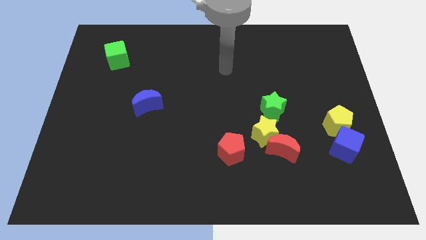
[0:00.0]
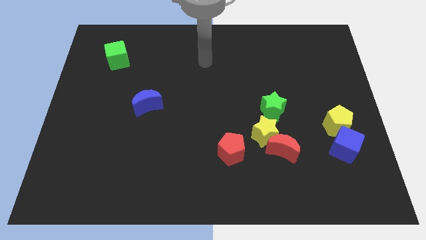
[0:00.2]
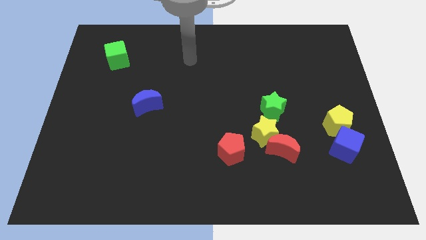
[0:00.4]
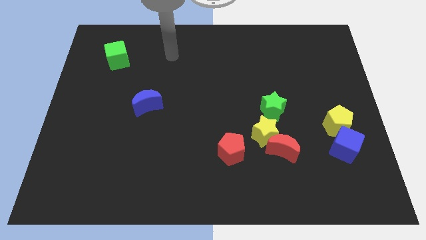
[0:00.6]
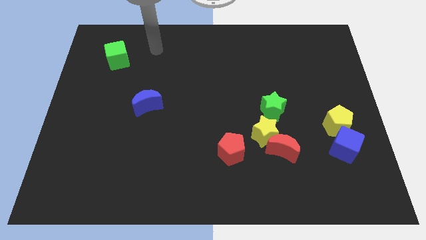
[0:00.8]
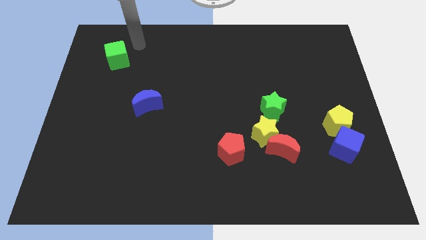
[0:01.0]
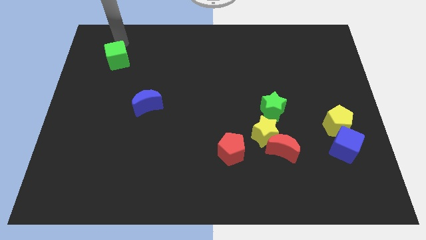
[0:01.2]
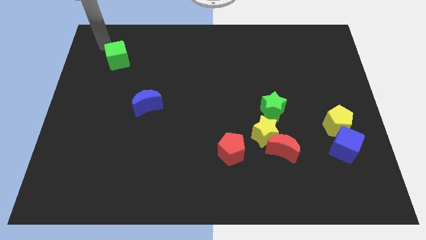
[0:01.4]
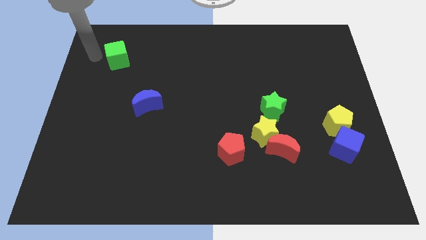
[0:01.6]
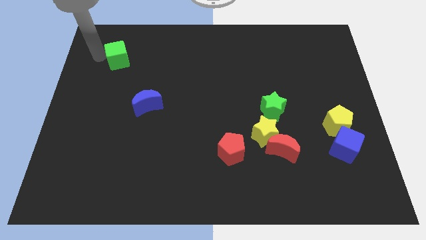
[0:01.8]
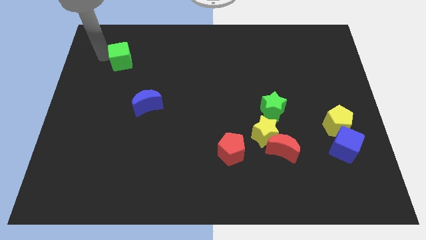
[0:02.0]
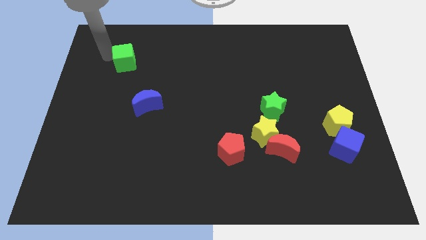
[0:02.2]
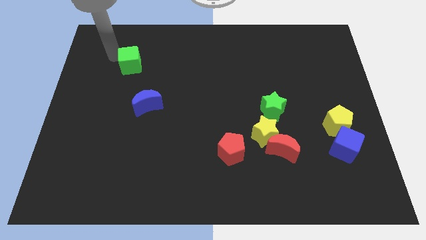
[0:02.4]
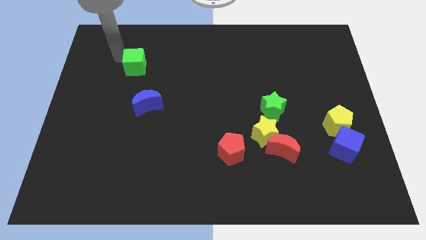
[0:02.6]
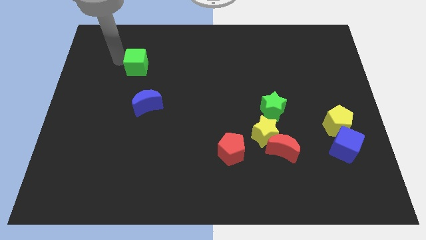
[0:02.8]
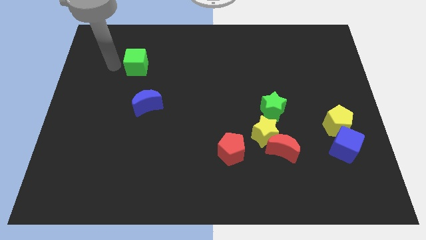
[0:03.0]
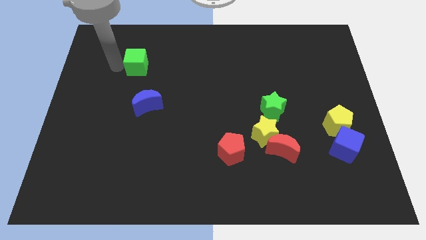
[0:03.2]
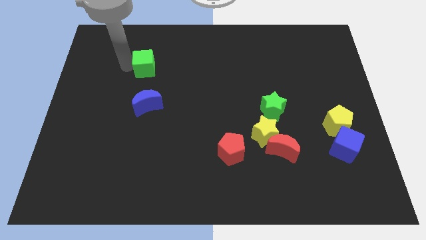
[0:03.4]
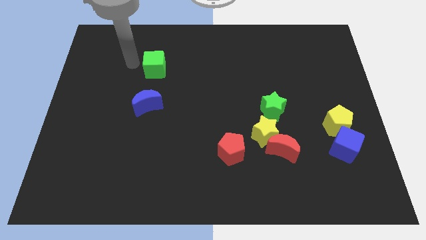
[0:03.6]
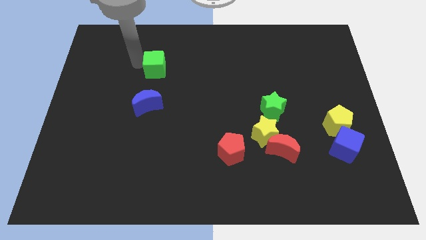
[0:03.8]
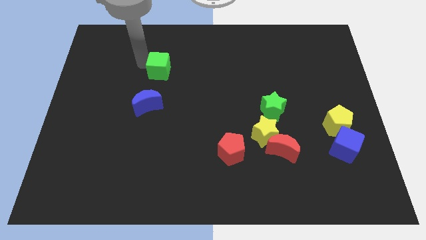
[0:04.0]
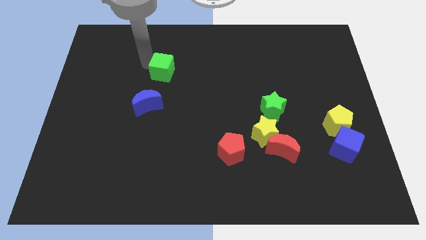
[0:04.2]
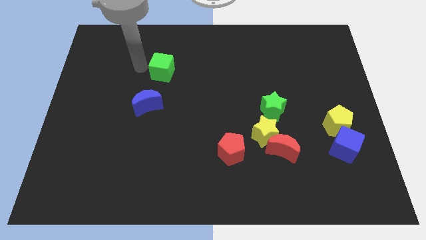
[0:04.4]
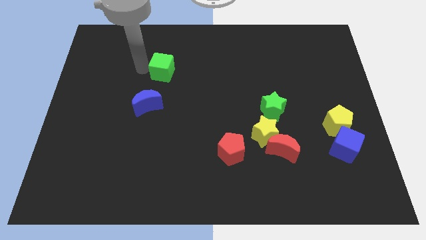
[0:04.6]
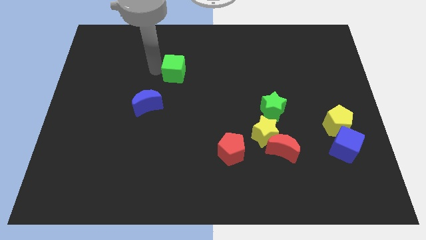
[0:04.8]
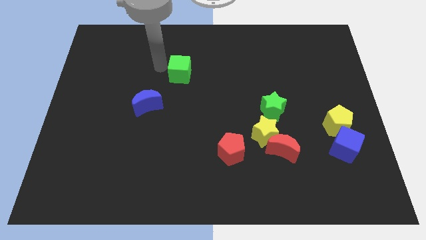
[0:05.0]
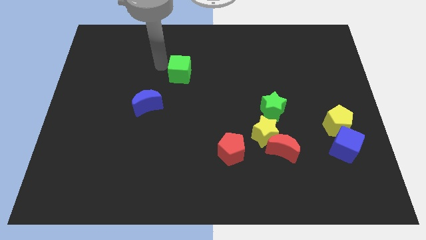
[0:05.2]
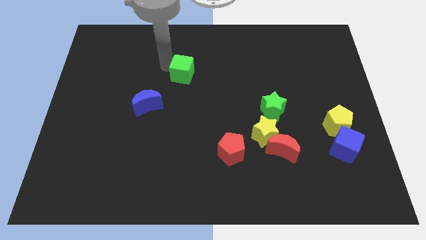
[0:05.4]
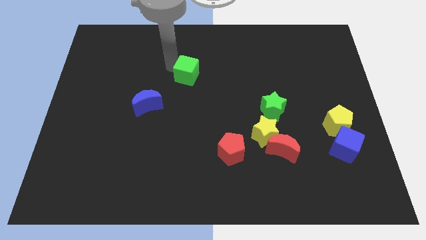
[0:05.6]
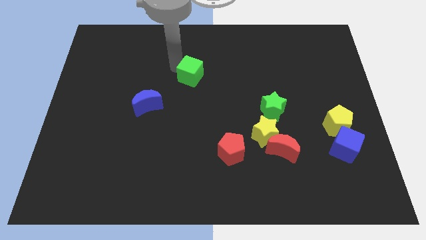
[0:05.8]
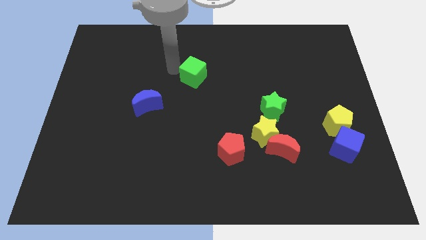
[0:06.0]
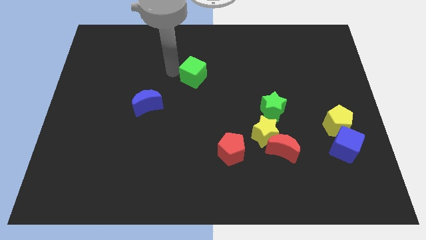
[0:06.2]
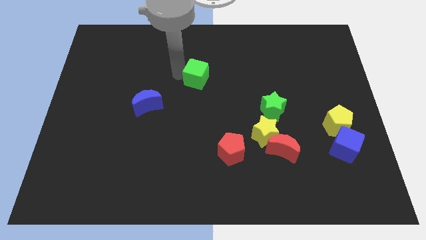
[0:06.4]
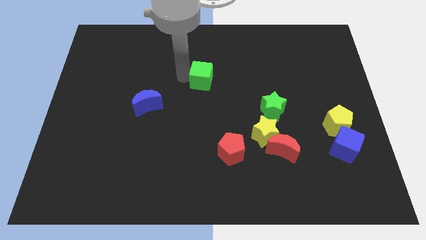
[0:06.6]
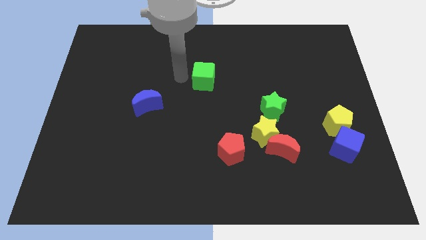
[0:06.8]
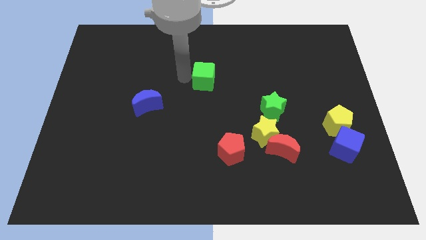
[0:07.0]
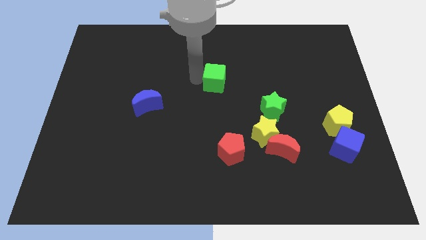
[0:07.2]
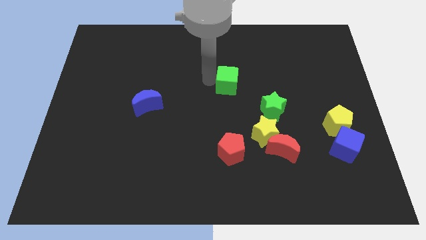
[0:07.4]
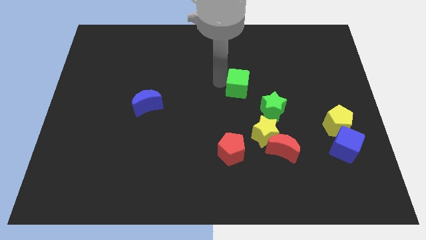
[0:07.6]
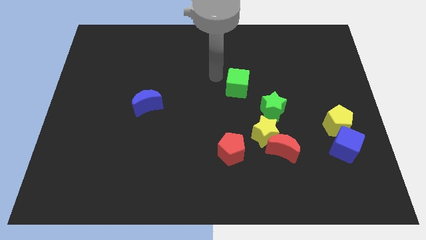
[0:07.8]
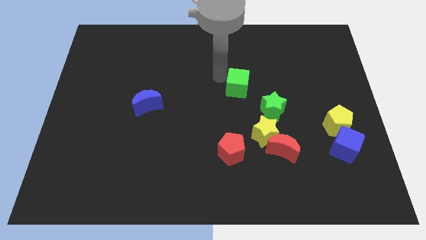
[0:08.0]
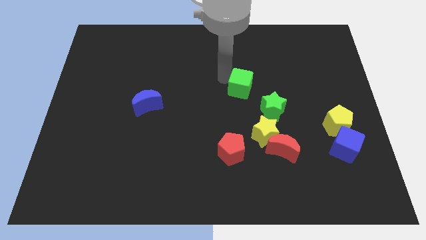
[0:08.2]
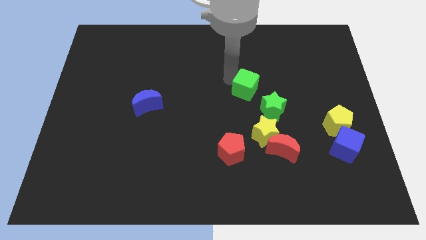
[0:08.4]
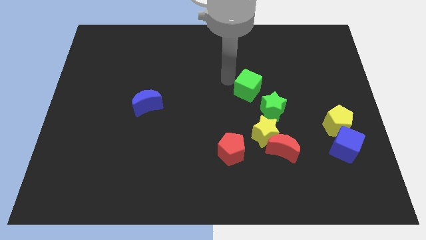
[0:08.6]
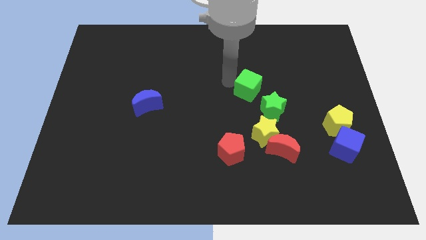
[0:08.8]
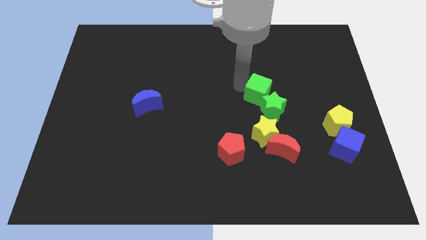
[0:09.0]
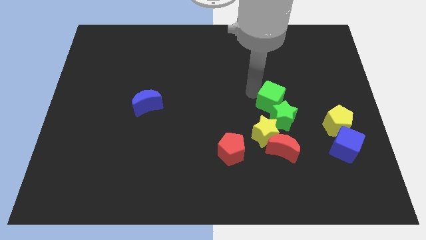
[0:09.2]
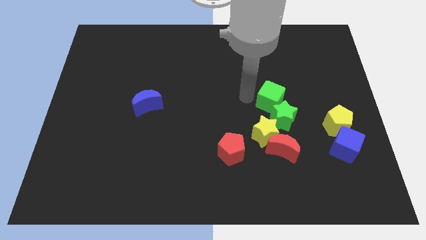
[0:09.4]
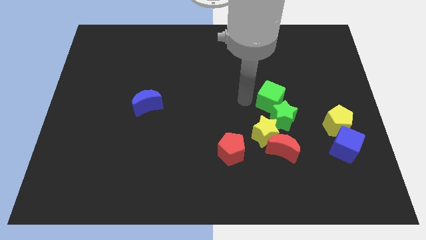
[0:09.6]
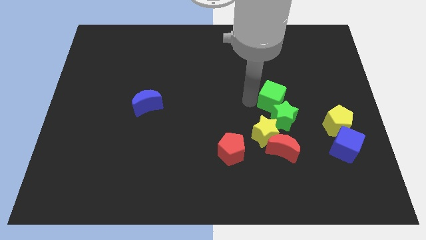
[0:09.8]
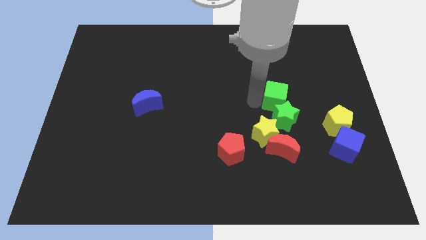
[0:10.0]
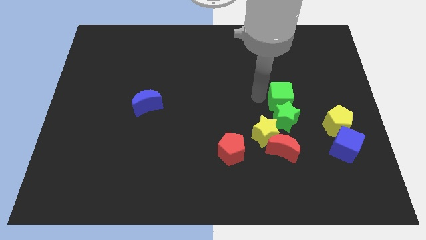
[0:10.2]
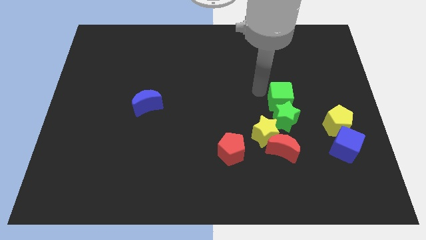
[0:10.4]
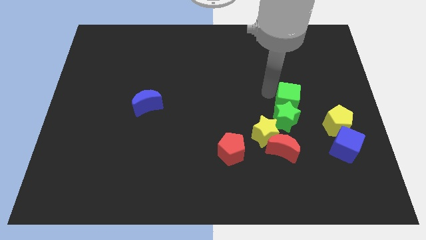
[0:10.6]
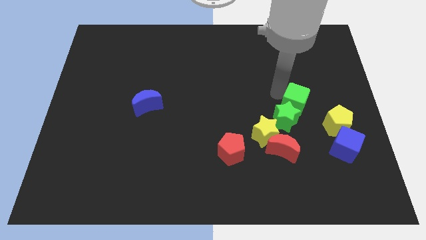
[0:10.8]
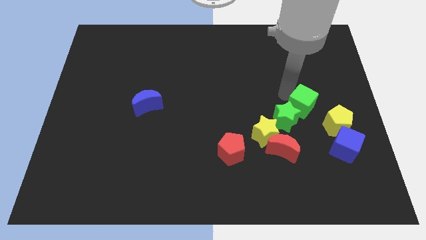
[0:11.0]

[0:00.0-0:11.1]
put the green cube to the right side of the green star

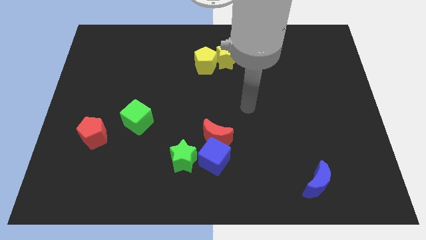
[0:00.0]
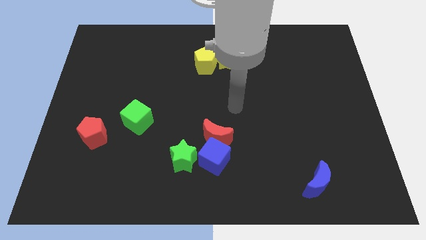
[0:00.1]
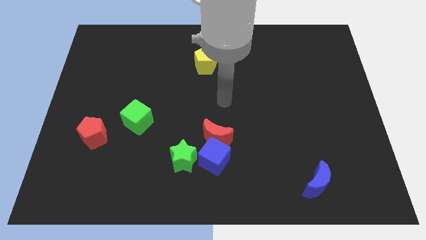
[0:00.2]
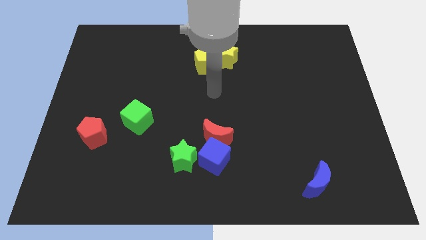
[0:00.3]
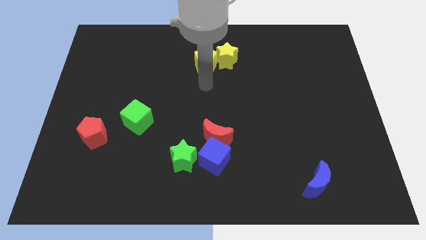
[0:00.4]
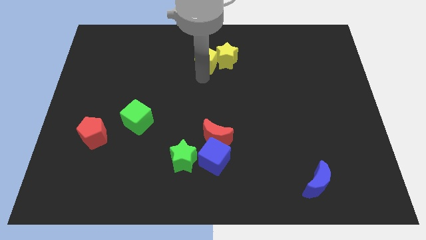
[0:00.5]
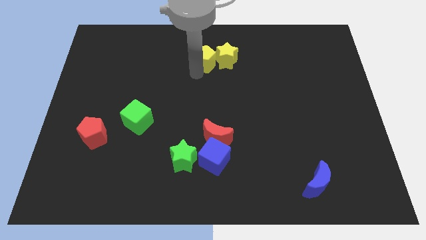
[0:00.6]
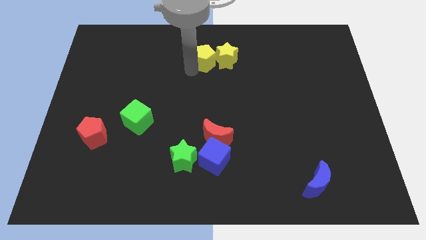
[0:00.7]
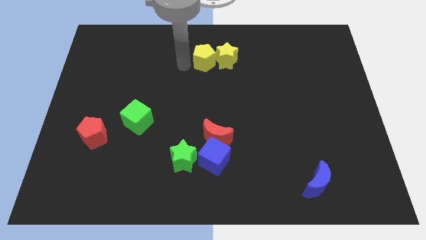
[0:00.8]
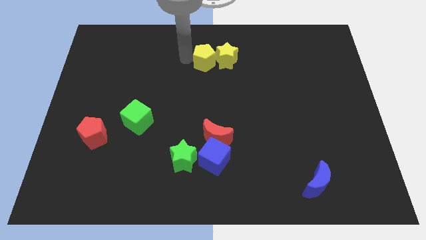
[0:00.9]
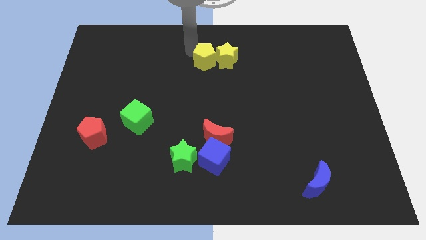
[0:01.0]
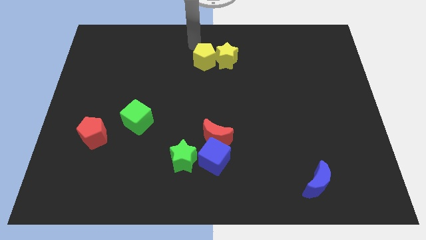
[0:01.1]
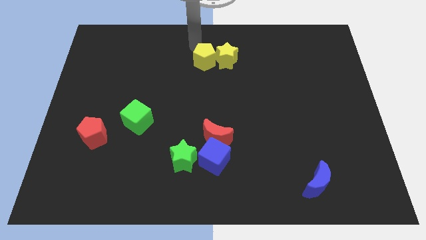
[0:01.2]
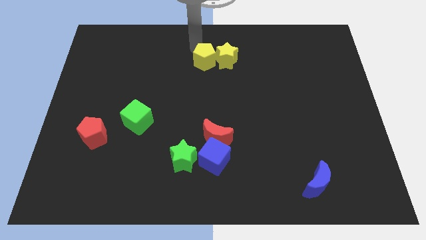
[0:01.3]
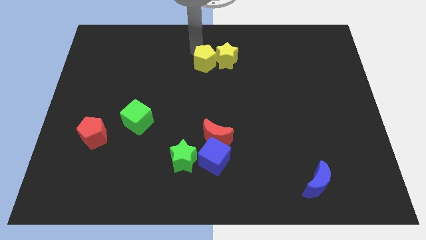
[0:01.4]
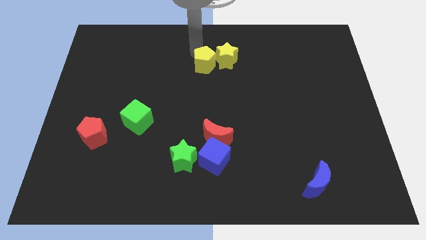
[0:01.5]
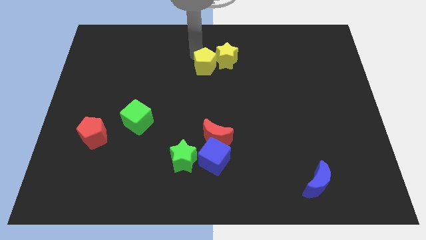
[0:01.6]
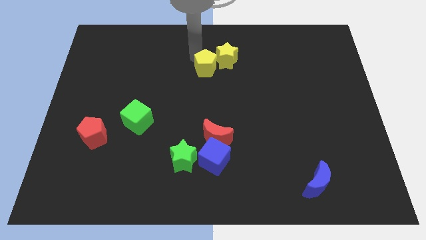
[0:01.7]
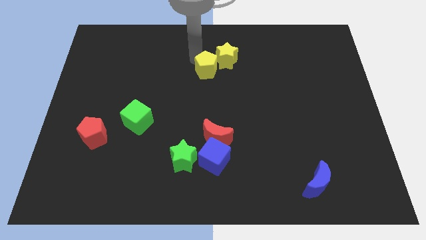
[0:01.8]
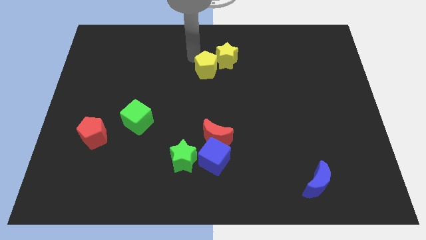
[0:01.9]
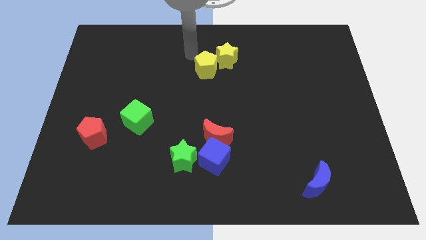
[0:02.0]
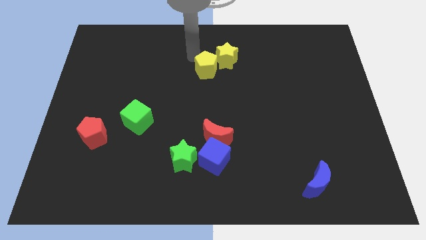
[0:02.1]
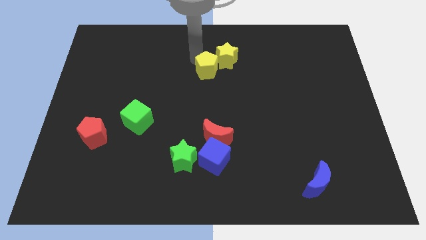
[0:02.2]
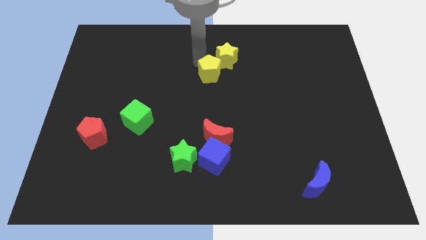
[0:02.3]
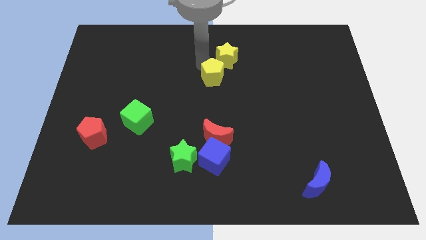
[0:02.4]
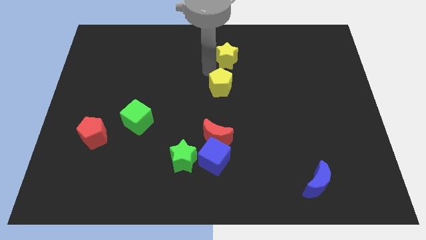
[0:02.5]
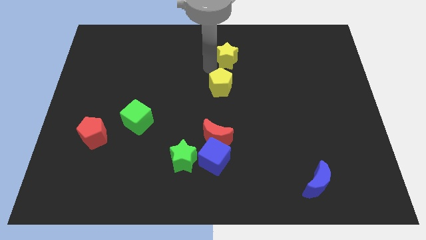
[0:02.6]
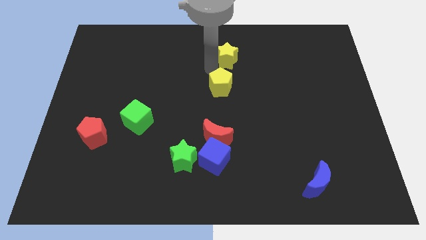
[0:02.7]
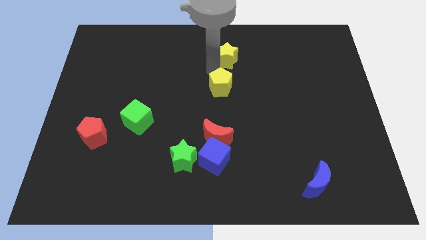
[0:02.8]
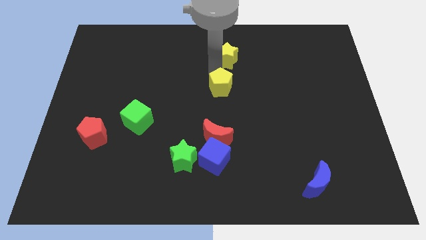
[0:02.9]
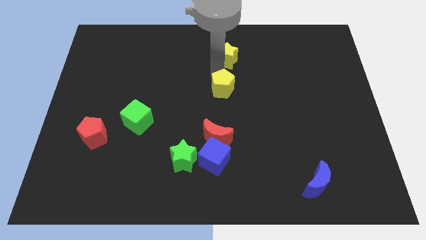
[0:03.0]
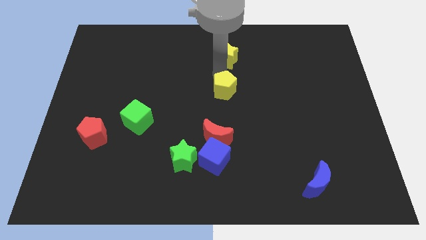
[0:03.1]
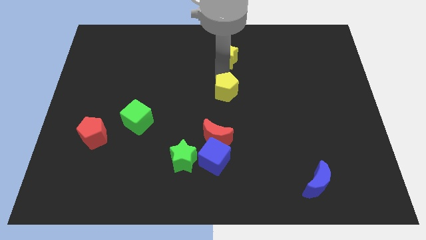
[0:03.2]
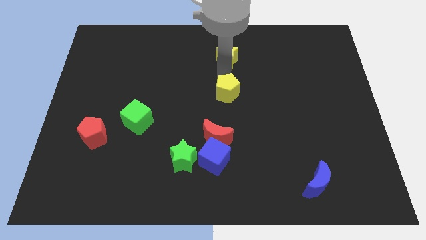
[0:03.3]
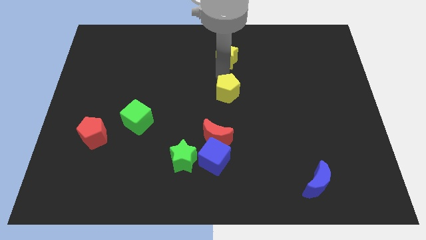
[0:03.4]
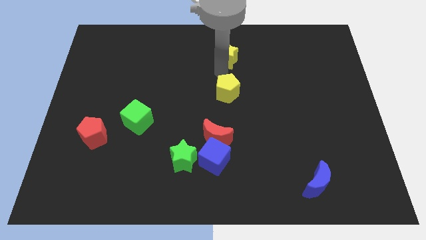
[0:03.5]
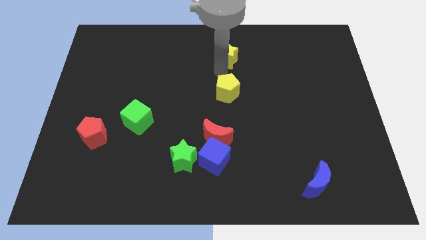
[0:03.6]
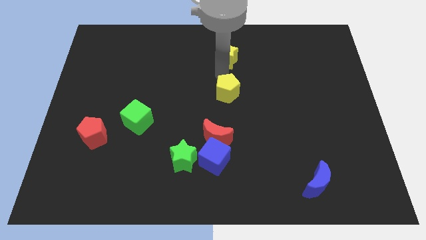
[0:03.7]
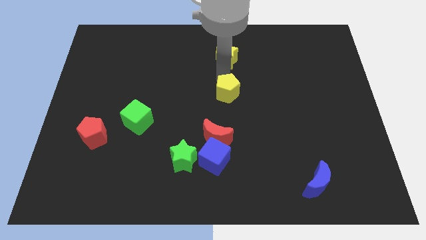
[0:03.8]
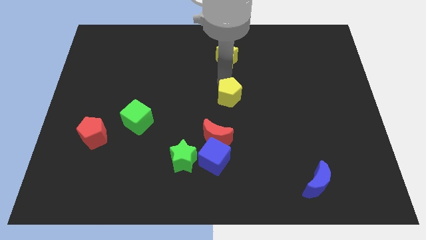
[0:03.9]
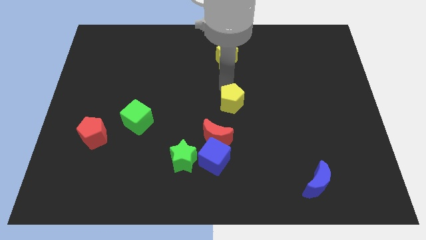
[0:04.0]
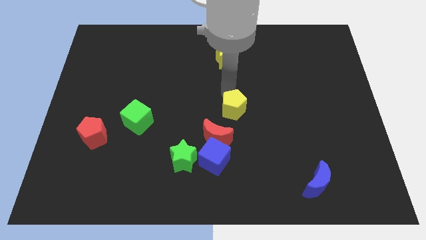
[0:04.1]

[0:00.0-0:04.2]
push the yellow pentagon to the top right side of the red moon
